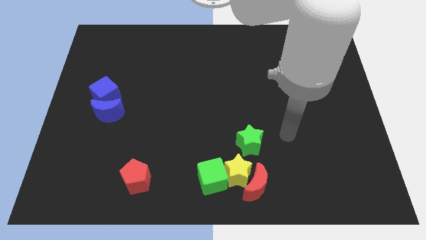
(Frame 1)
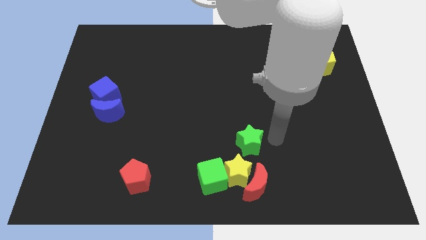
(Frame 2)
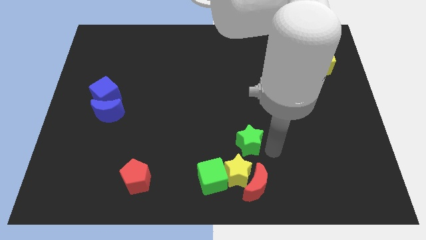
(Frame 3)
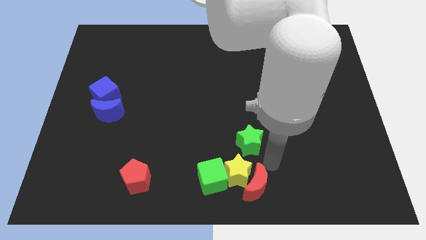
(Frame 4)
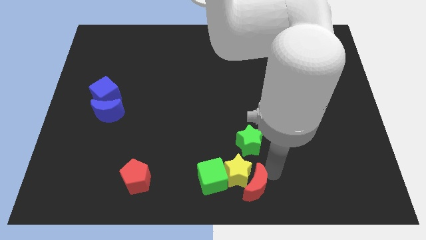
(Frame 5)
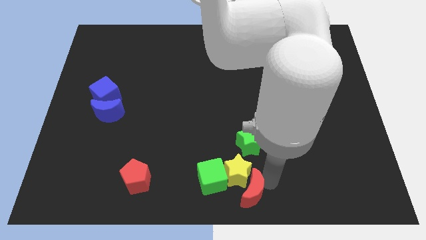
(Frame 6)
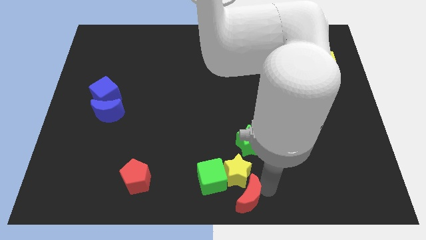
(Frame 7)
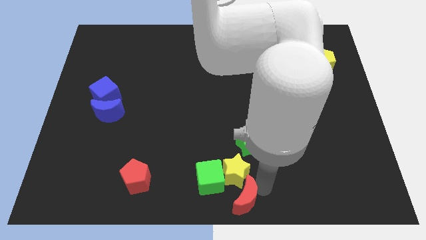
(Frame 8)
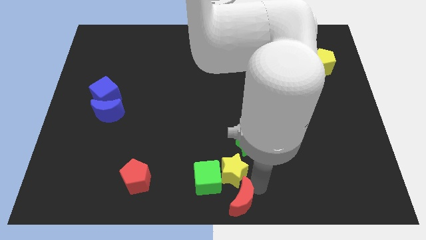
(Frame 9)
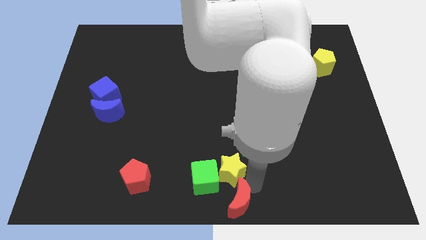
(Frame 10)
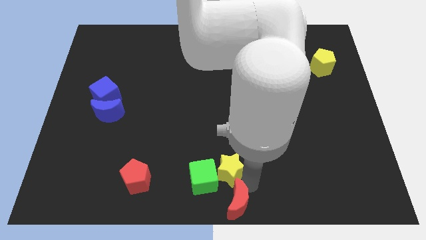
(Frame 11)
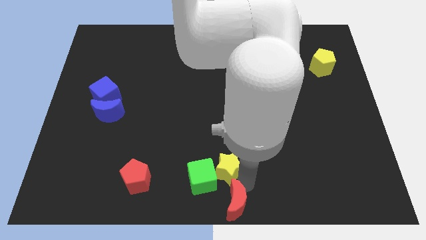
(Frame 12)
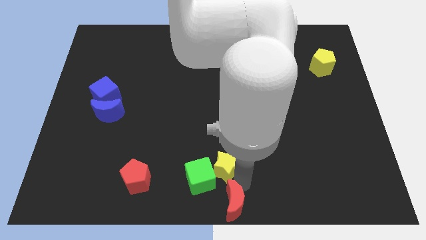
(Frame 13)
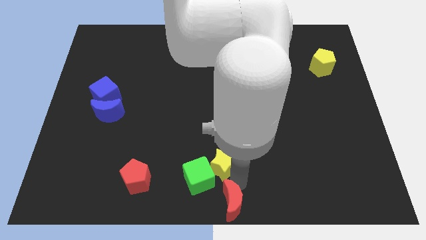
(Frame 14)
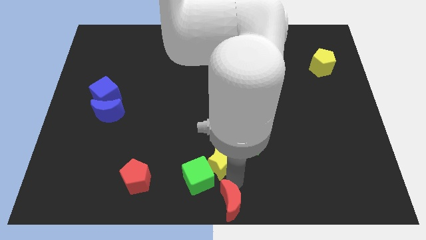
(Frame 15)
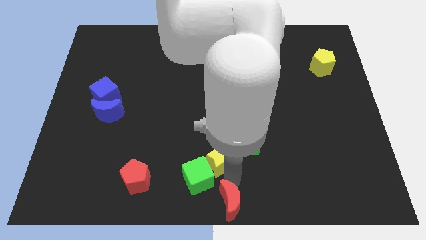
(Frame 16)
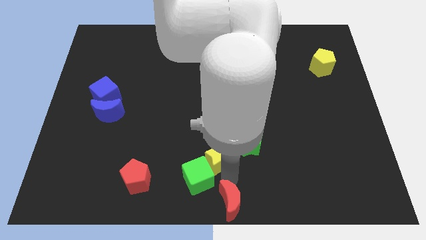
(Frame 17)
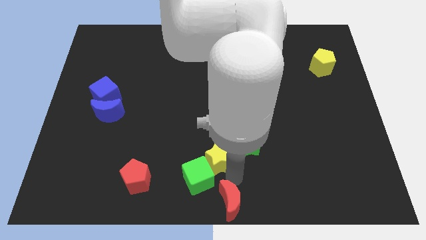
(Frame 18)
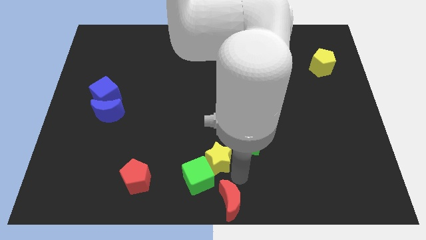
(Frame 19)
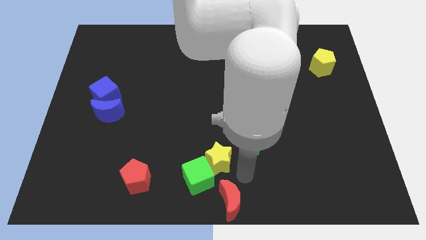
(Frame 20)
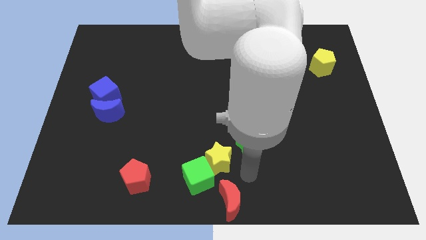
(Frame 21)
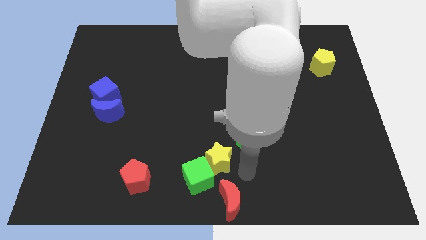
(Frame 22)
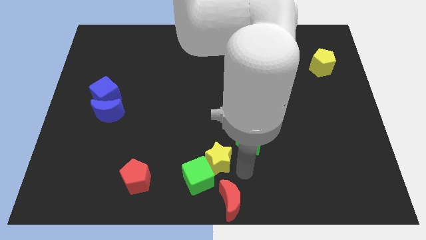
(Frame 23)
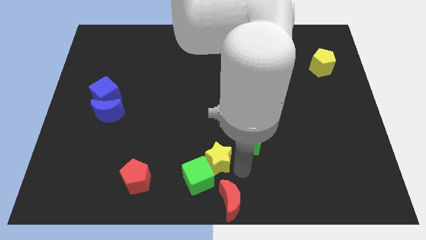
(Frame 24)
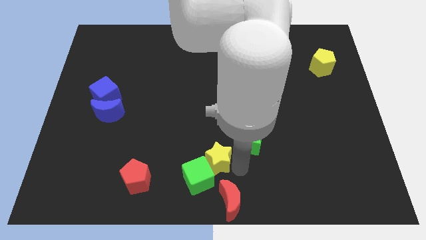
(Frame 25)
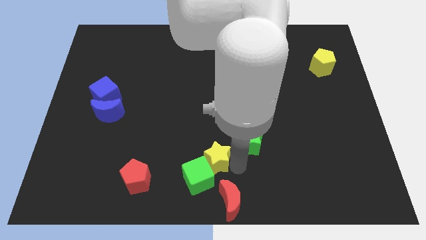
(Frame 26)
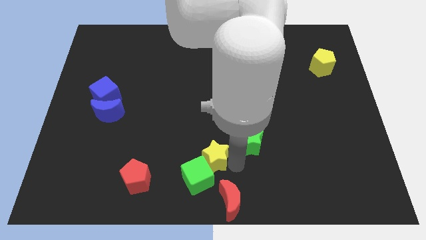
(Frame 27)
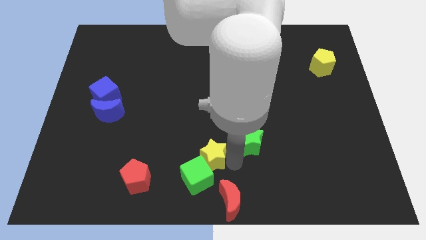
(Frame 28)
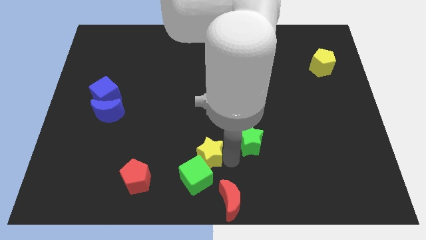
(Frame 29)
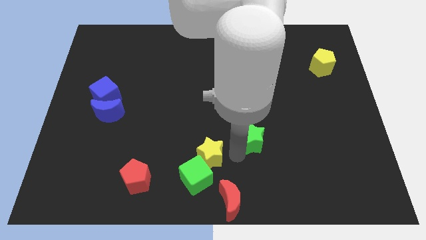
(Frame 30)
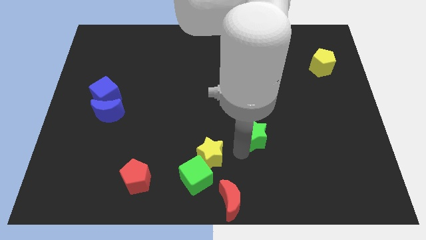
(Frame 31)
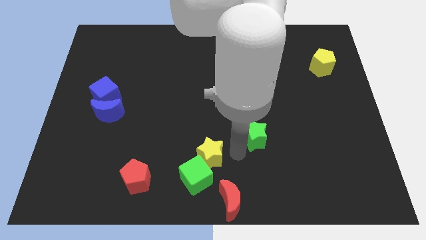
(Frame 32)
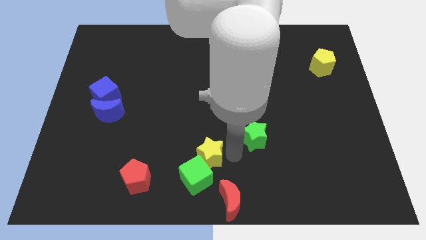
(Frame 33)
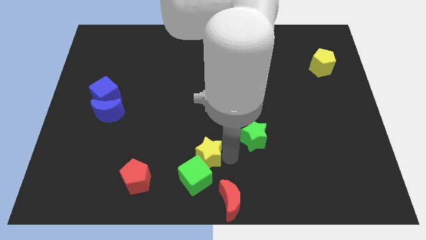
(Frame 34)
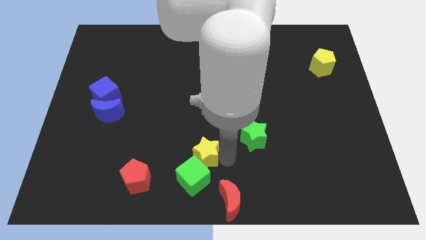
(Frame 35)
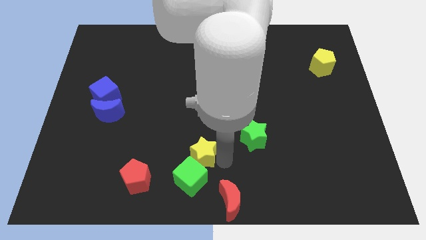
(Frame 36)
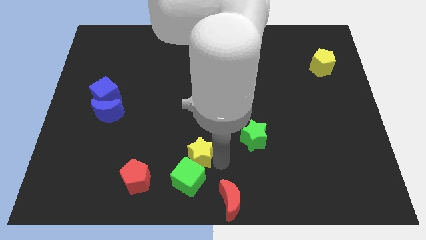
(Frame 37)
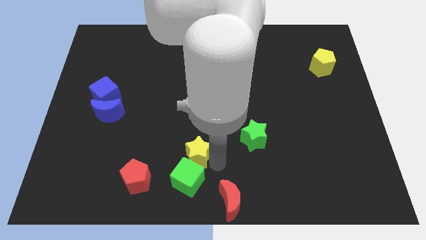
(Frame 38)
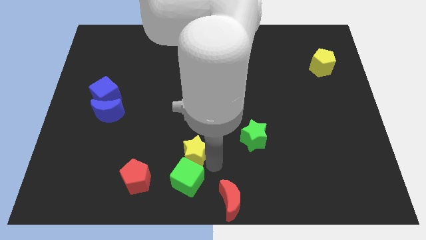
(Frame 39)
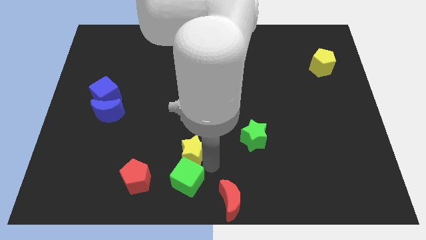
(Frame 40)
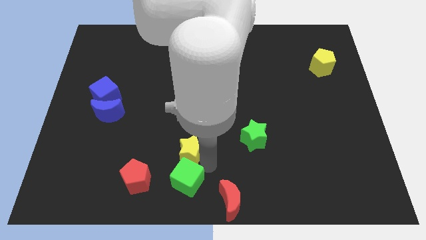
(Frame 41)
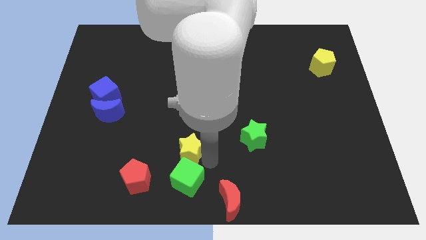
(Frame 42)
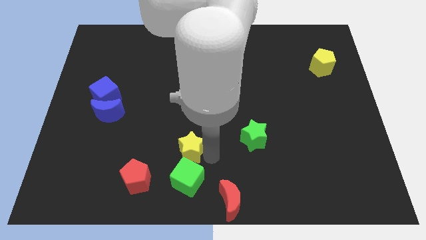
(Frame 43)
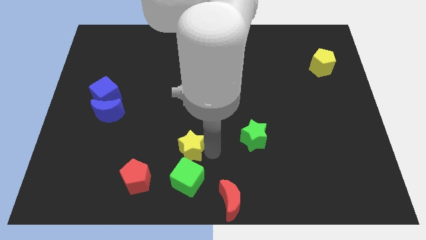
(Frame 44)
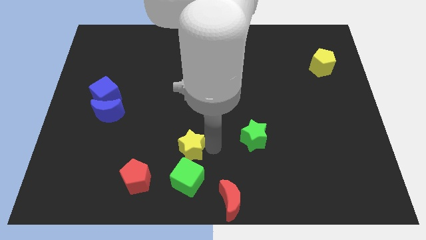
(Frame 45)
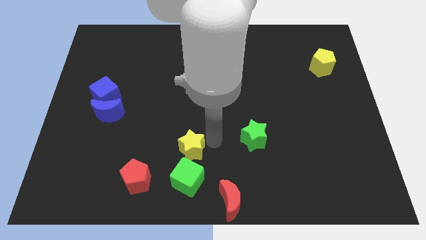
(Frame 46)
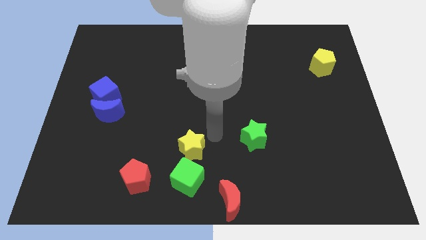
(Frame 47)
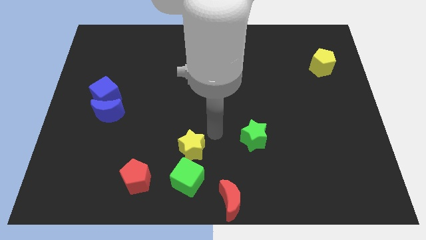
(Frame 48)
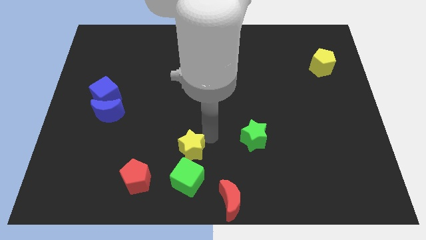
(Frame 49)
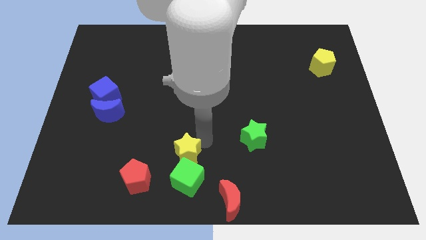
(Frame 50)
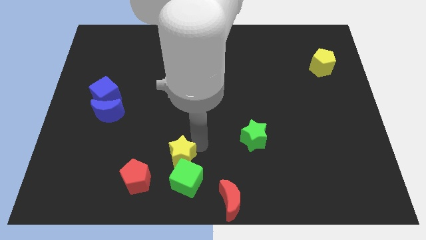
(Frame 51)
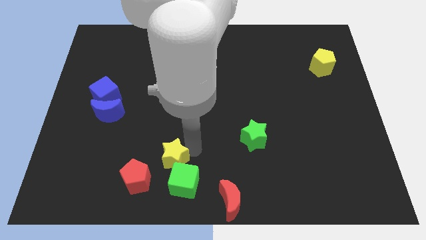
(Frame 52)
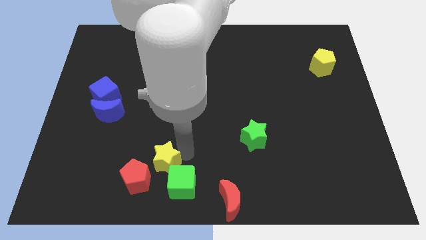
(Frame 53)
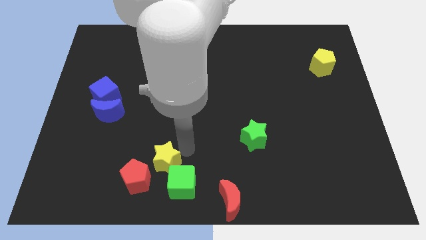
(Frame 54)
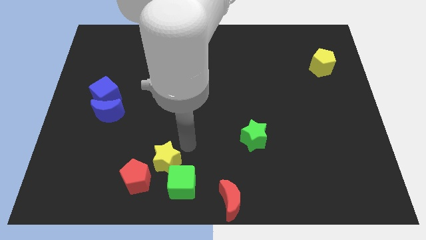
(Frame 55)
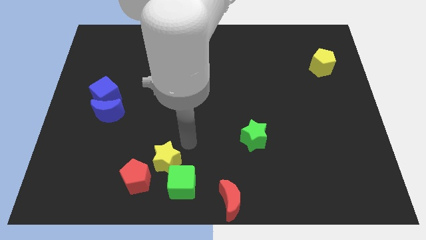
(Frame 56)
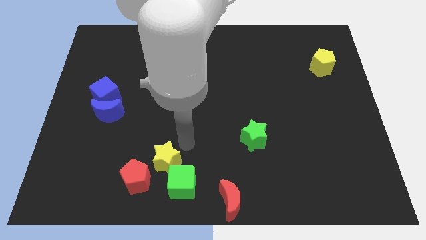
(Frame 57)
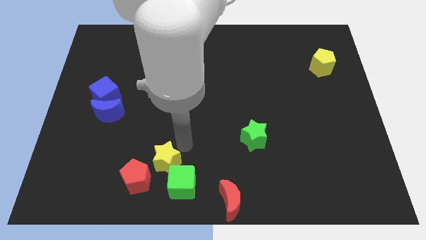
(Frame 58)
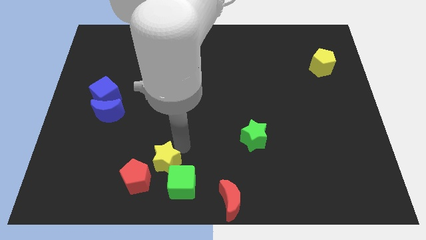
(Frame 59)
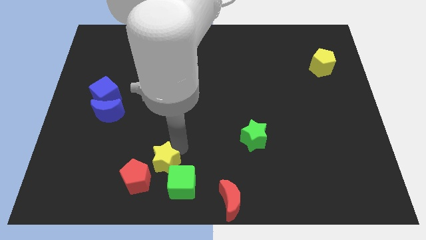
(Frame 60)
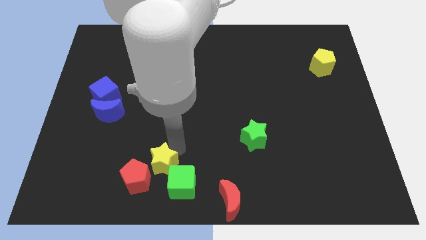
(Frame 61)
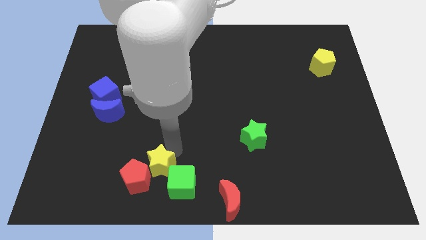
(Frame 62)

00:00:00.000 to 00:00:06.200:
push the yellow star close to the red pentagon

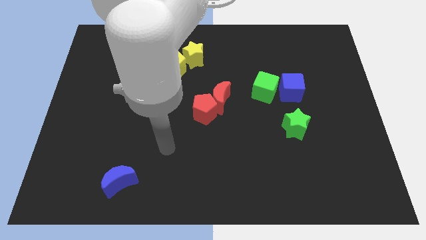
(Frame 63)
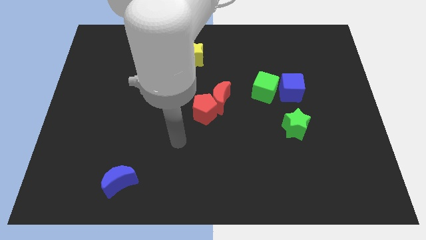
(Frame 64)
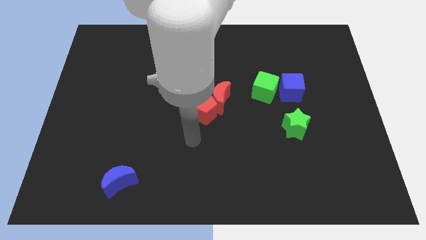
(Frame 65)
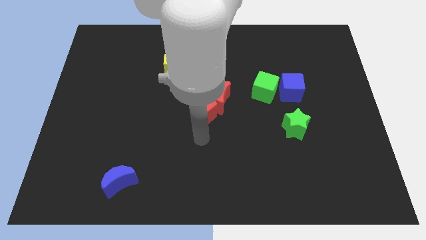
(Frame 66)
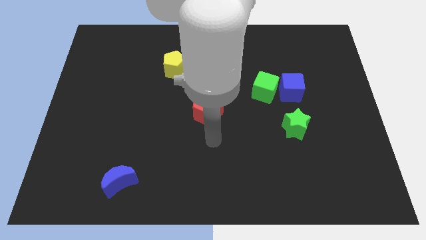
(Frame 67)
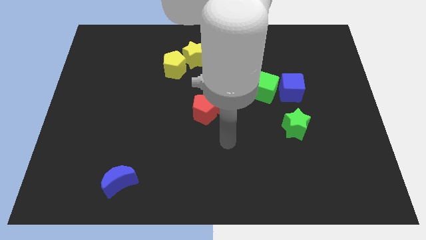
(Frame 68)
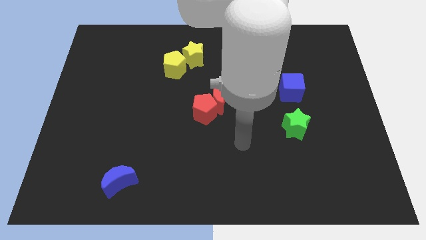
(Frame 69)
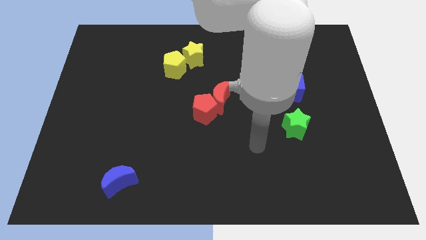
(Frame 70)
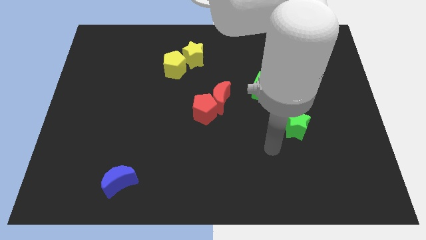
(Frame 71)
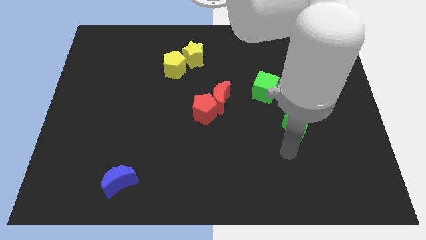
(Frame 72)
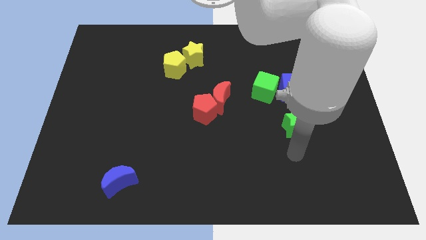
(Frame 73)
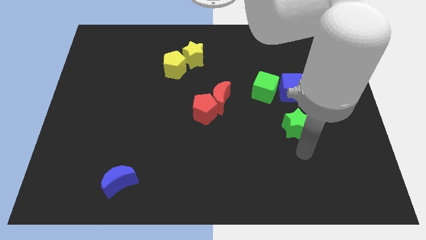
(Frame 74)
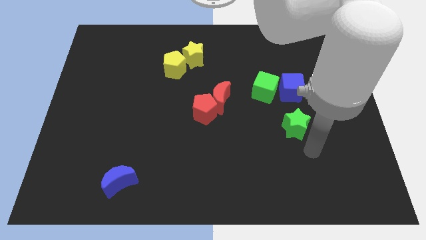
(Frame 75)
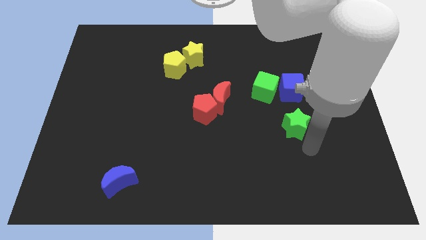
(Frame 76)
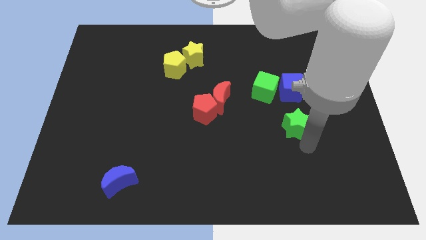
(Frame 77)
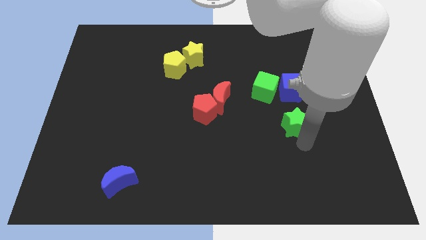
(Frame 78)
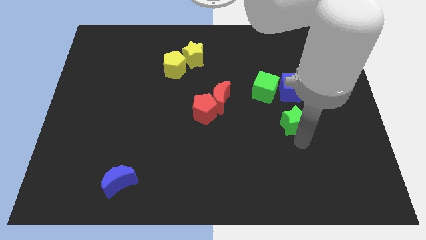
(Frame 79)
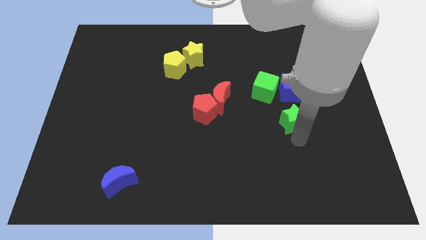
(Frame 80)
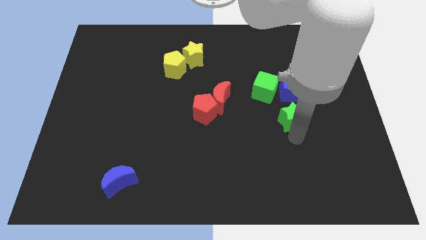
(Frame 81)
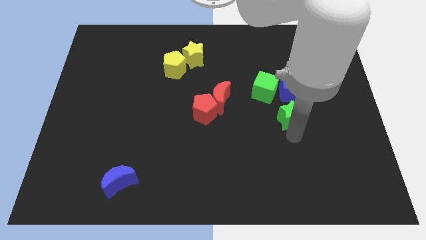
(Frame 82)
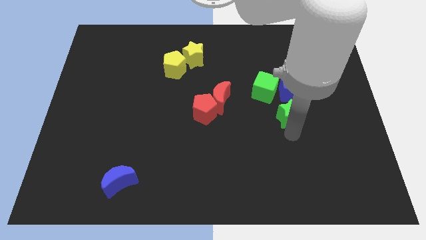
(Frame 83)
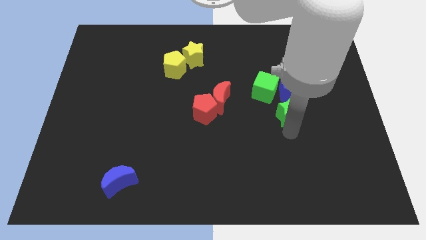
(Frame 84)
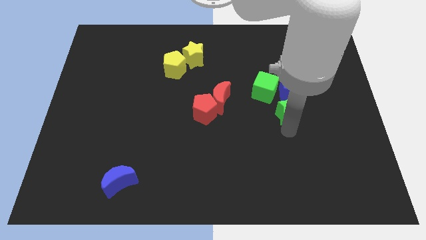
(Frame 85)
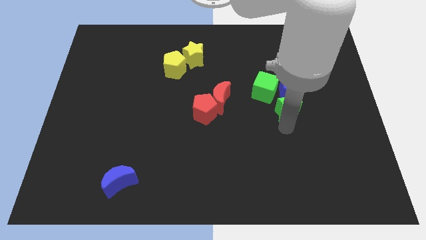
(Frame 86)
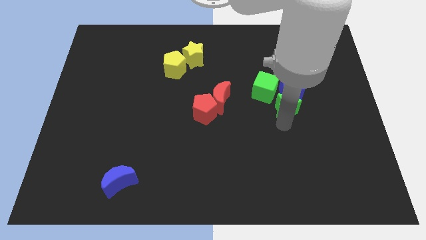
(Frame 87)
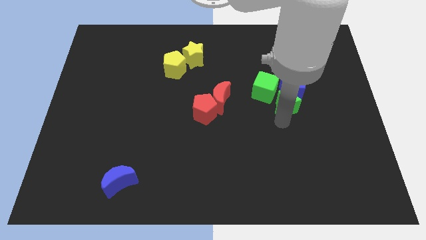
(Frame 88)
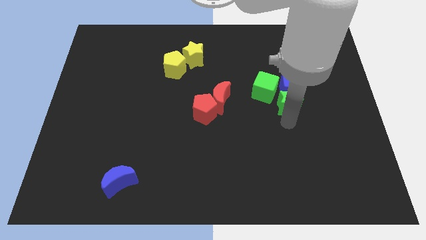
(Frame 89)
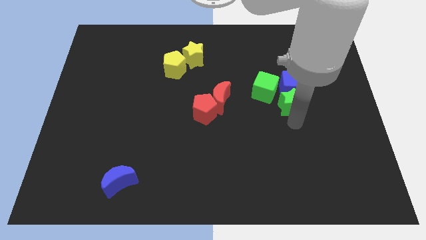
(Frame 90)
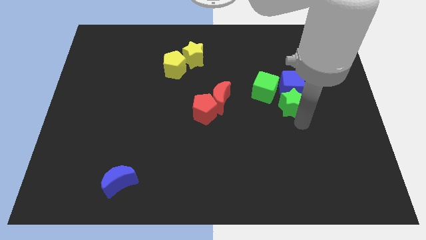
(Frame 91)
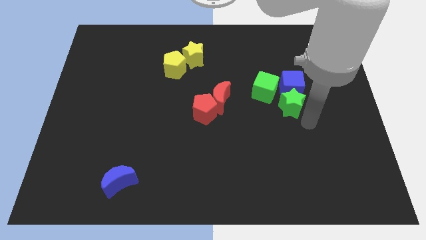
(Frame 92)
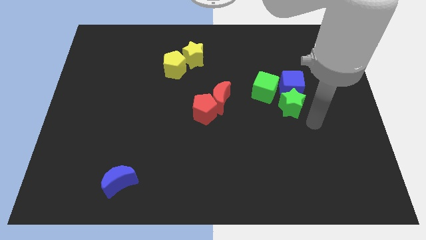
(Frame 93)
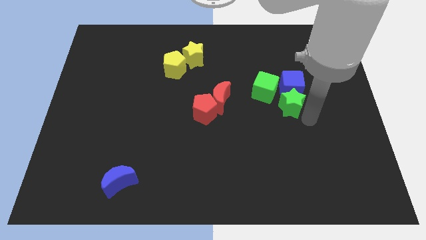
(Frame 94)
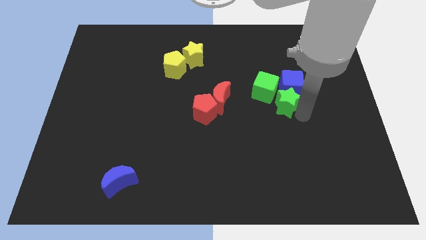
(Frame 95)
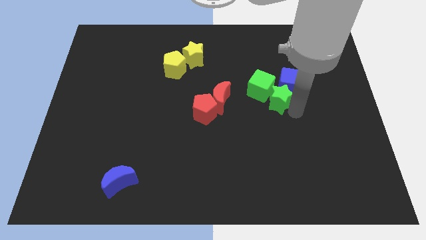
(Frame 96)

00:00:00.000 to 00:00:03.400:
move the green star towards the green cube
